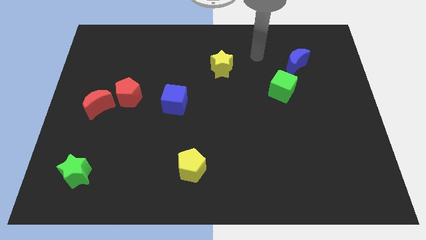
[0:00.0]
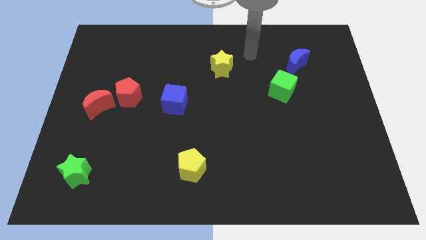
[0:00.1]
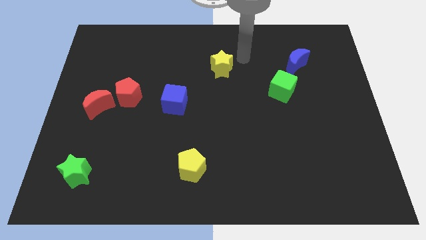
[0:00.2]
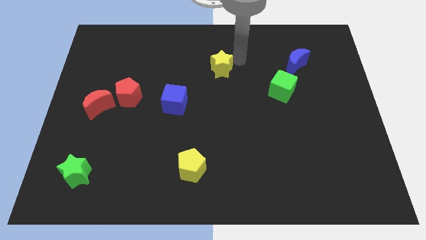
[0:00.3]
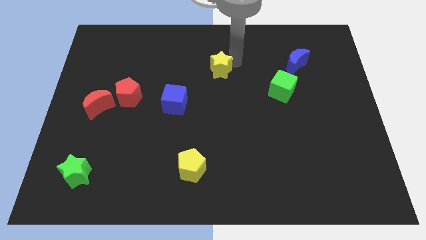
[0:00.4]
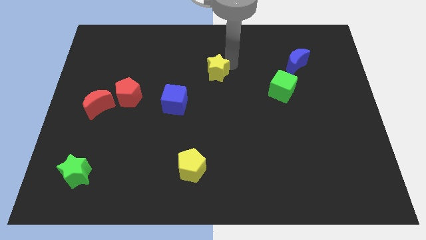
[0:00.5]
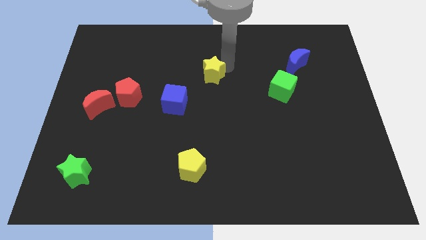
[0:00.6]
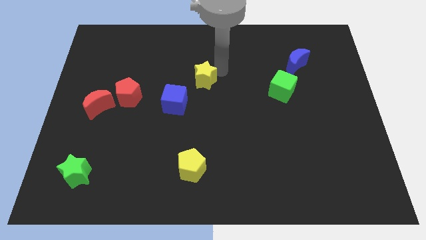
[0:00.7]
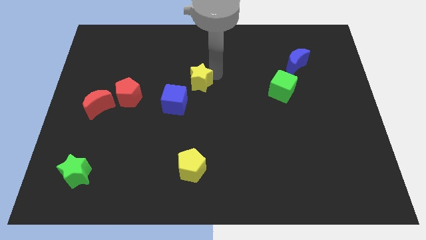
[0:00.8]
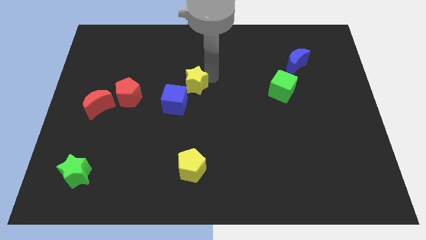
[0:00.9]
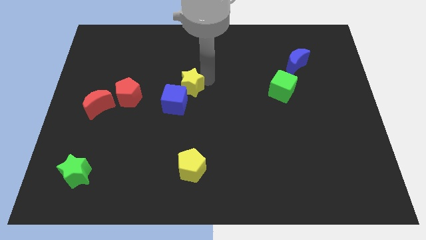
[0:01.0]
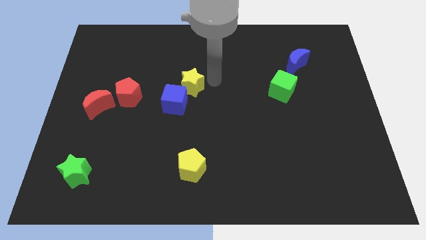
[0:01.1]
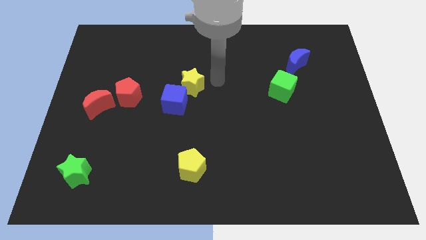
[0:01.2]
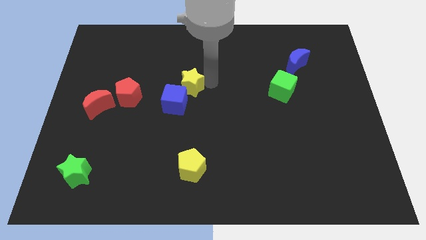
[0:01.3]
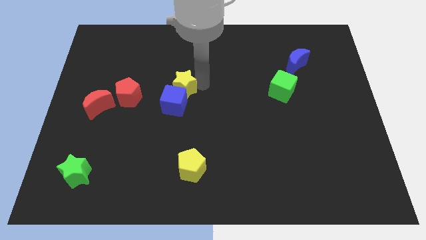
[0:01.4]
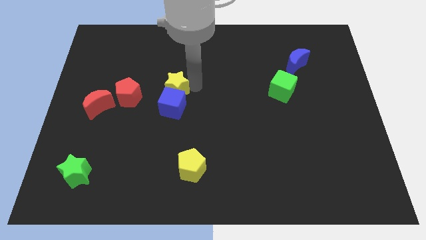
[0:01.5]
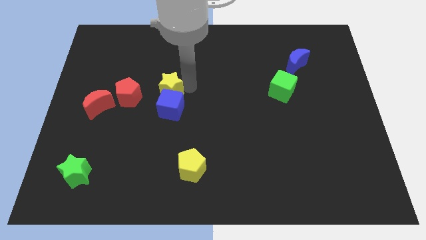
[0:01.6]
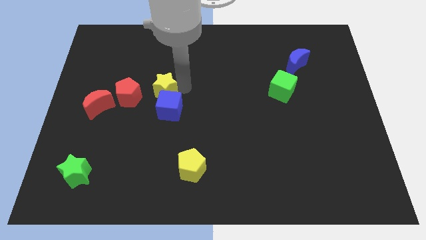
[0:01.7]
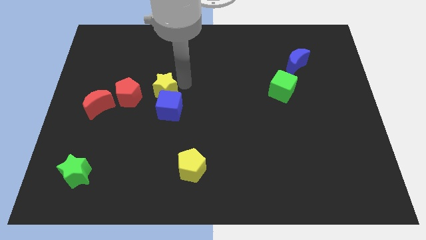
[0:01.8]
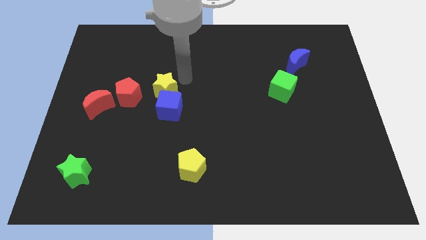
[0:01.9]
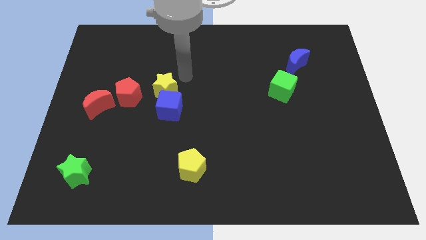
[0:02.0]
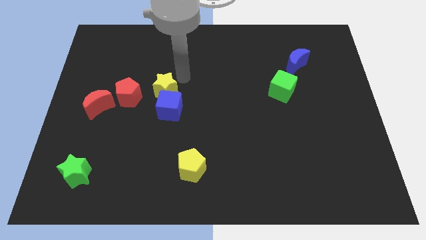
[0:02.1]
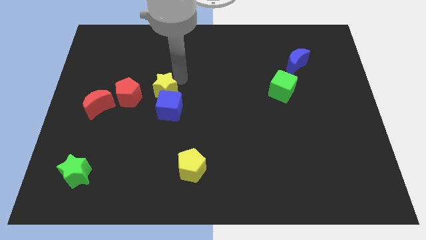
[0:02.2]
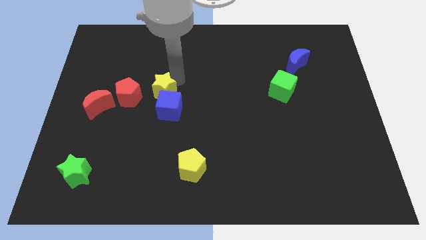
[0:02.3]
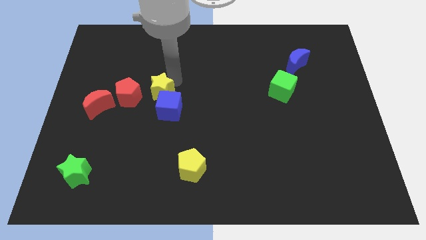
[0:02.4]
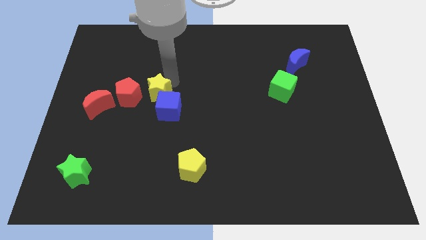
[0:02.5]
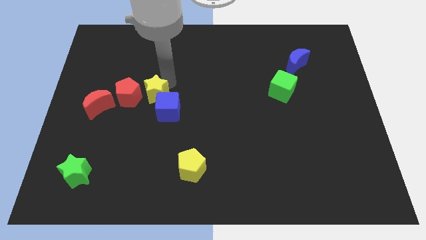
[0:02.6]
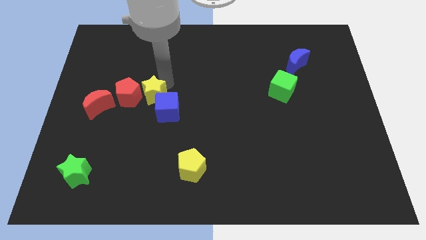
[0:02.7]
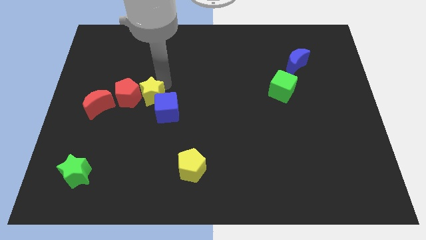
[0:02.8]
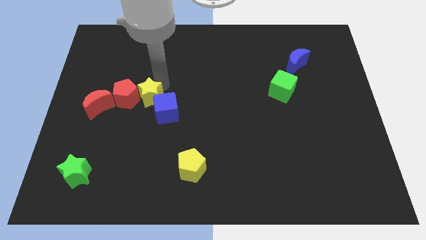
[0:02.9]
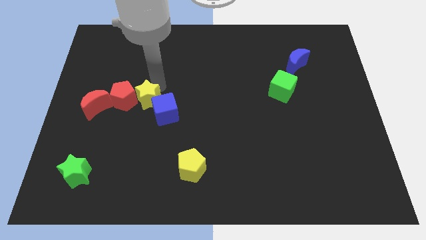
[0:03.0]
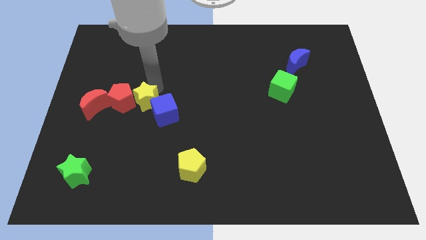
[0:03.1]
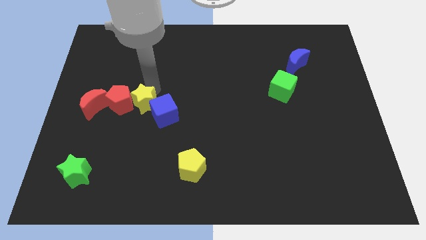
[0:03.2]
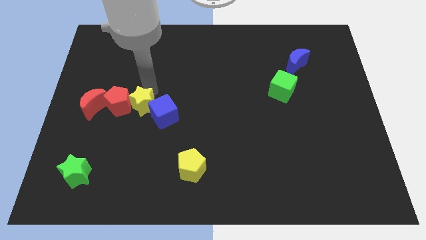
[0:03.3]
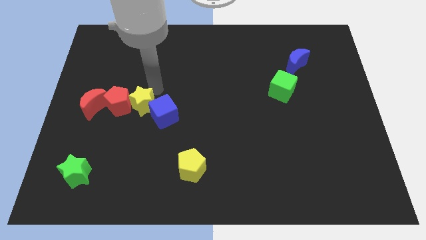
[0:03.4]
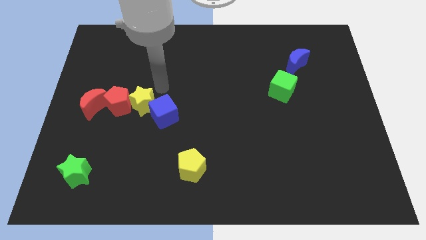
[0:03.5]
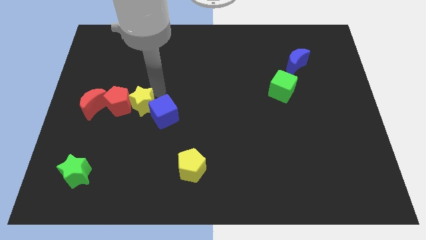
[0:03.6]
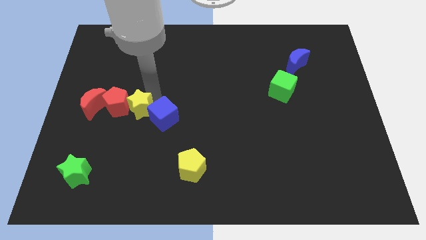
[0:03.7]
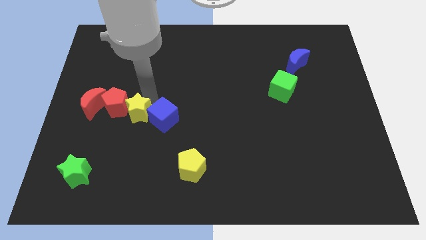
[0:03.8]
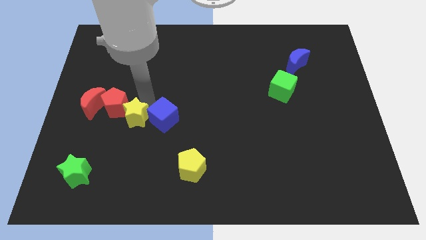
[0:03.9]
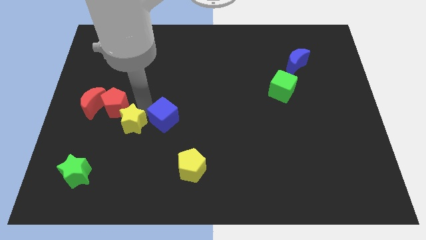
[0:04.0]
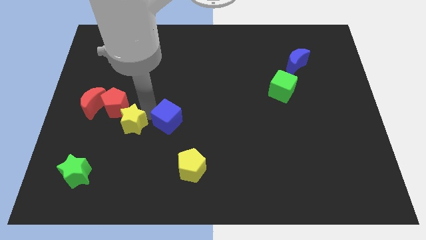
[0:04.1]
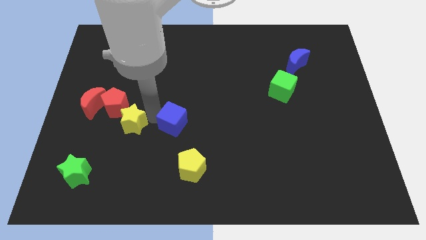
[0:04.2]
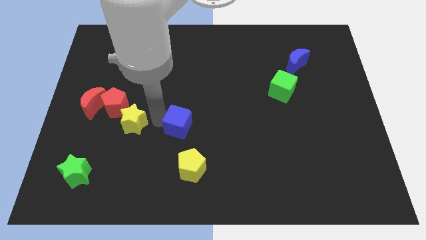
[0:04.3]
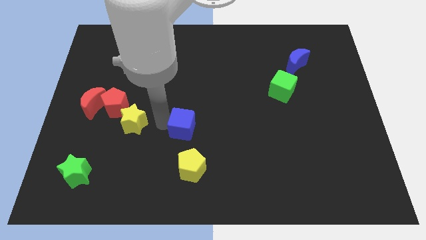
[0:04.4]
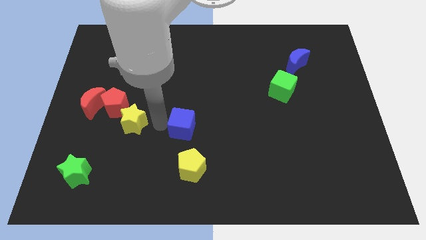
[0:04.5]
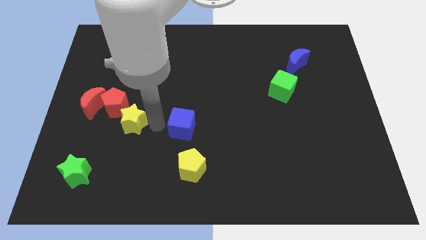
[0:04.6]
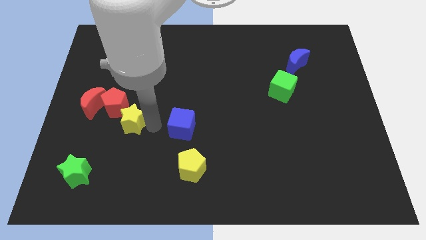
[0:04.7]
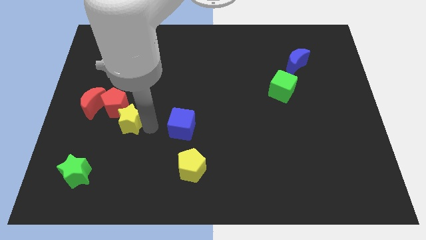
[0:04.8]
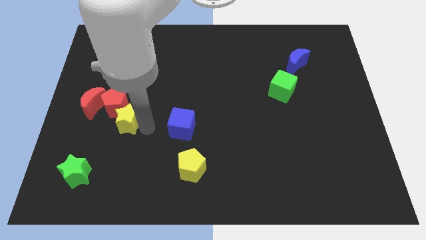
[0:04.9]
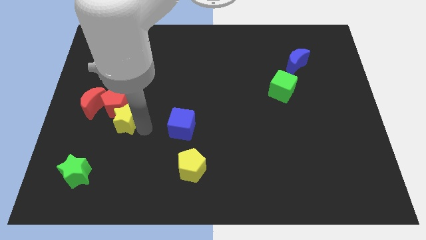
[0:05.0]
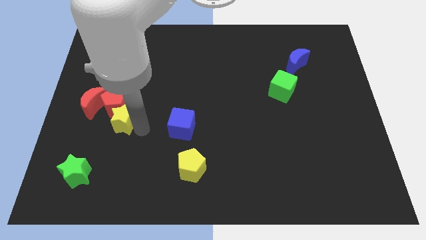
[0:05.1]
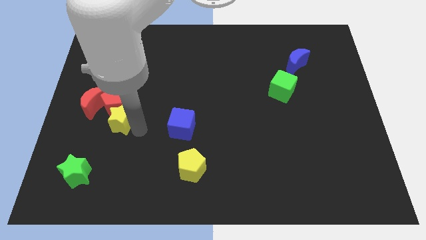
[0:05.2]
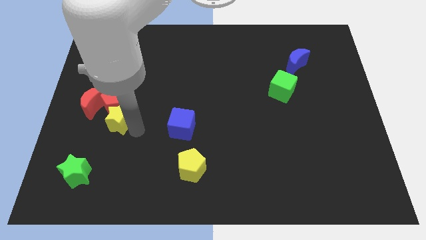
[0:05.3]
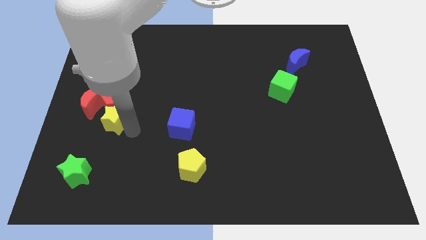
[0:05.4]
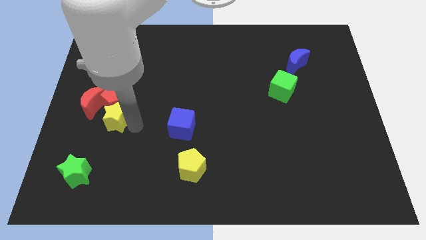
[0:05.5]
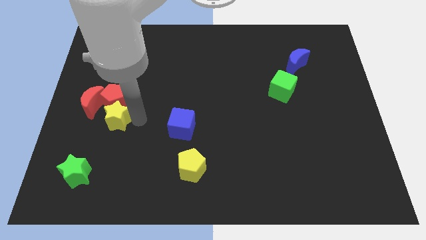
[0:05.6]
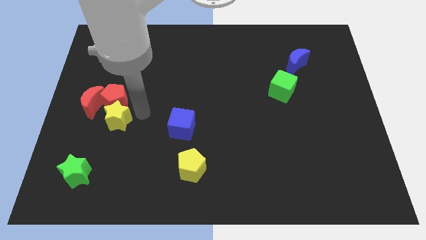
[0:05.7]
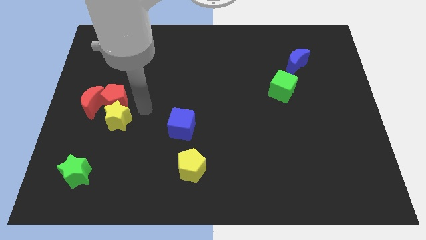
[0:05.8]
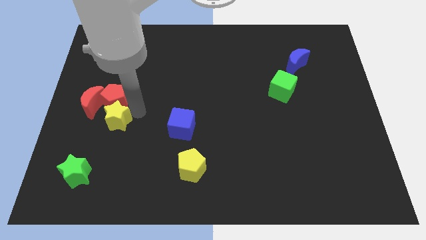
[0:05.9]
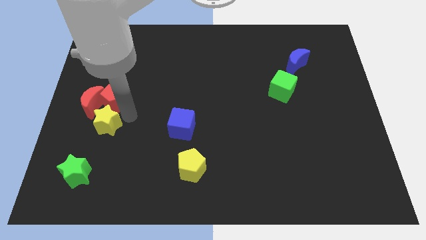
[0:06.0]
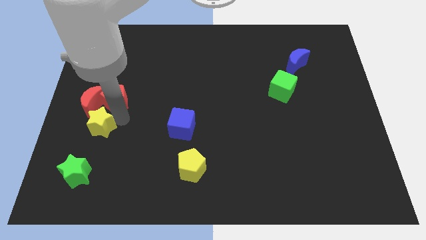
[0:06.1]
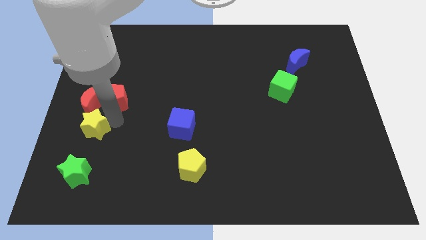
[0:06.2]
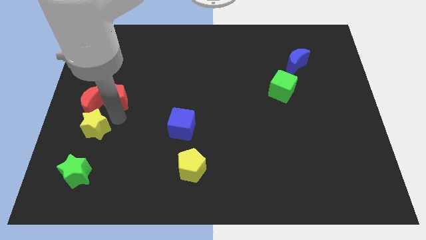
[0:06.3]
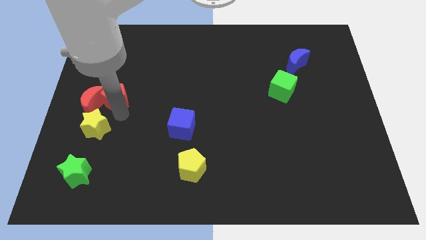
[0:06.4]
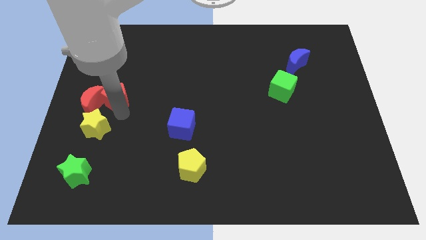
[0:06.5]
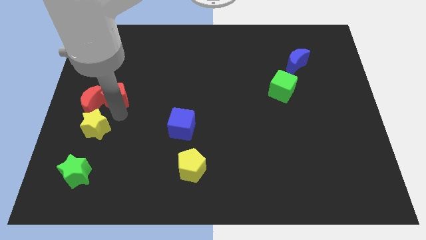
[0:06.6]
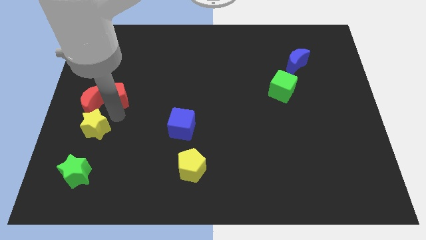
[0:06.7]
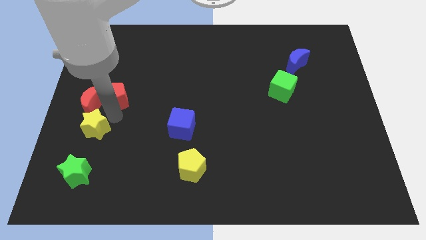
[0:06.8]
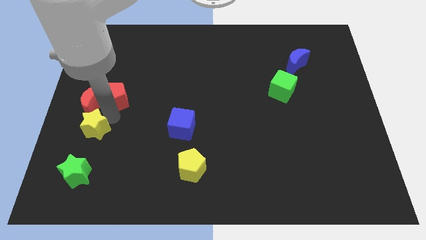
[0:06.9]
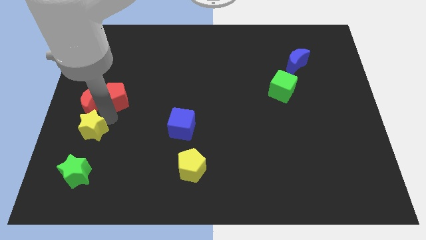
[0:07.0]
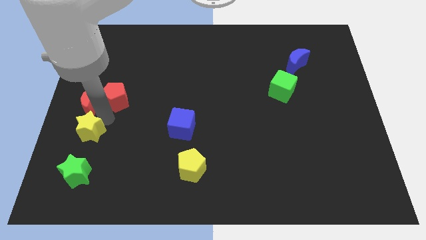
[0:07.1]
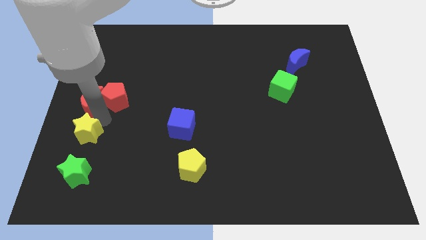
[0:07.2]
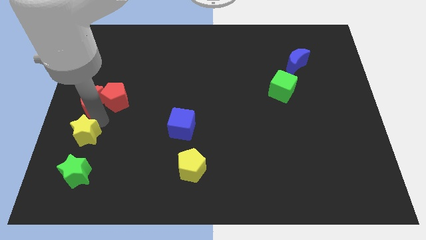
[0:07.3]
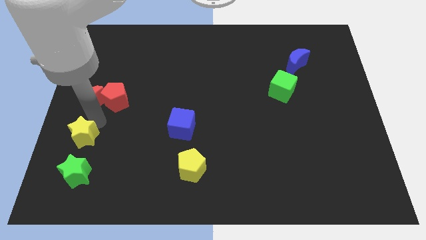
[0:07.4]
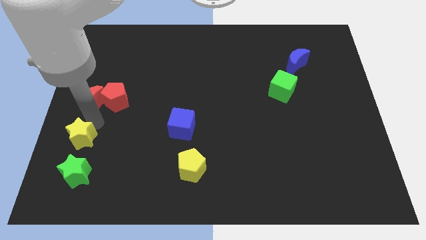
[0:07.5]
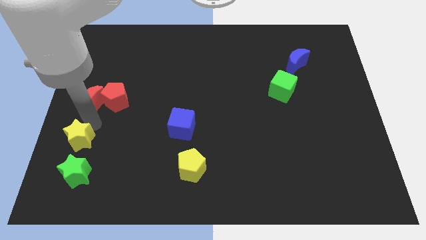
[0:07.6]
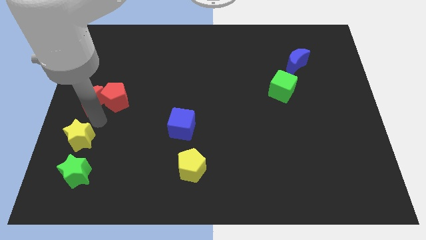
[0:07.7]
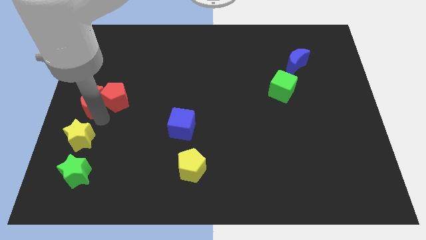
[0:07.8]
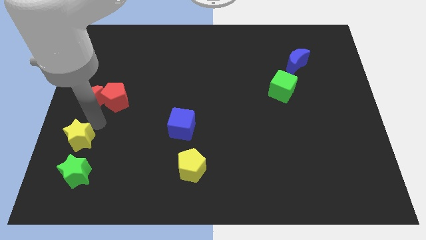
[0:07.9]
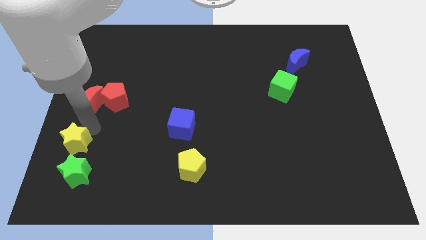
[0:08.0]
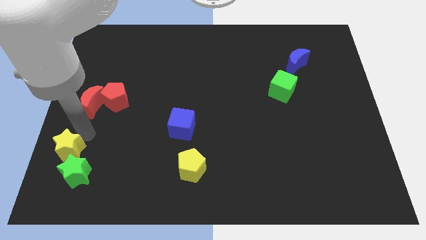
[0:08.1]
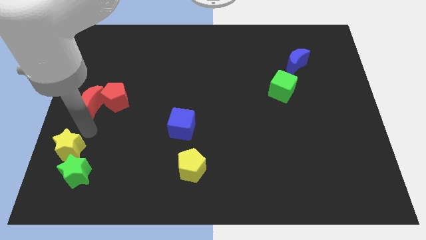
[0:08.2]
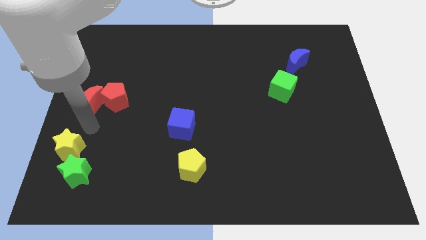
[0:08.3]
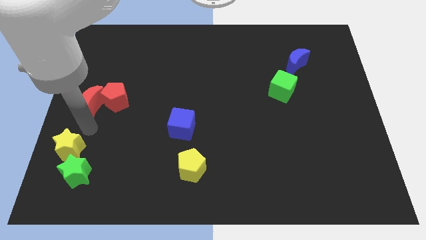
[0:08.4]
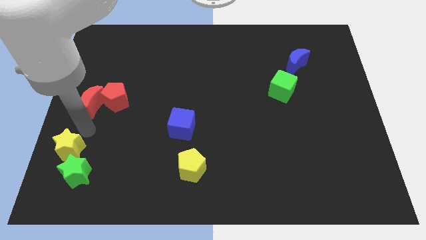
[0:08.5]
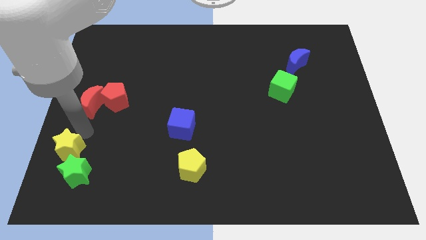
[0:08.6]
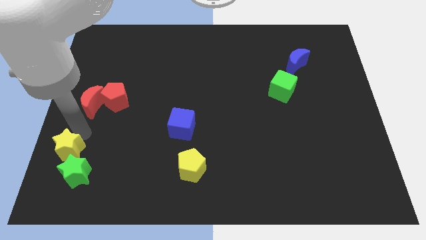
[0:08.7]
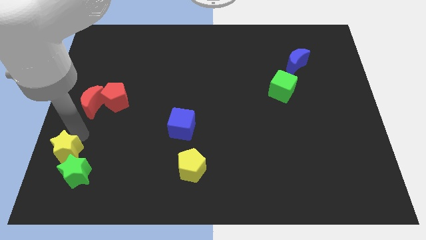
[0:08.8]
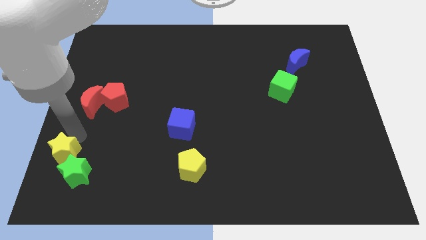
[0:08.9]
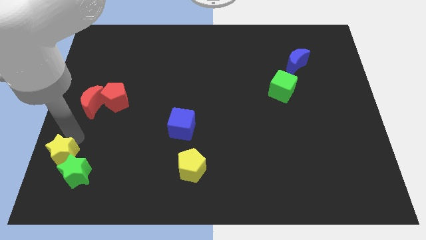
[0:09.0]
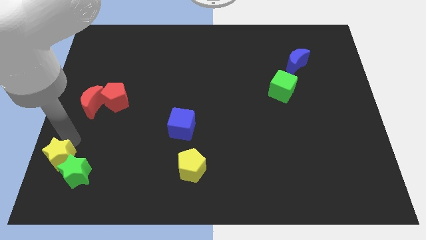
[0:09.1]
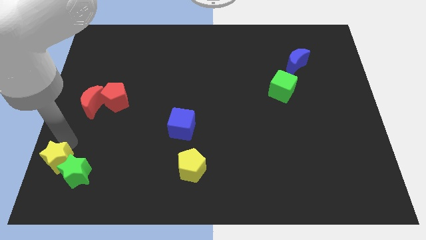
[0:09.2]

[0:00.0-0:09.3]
push the yellow star to the bottom left
